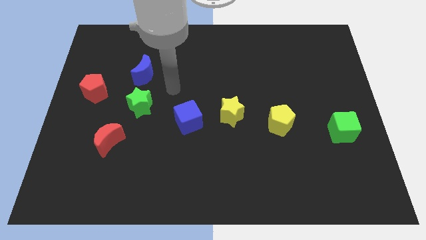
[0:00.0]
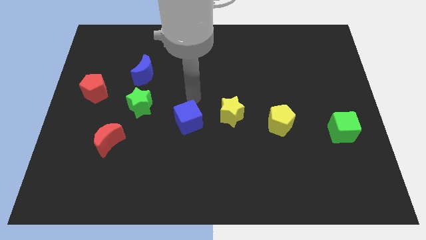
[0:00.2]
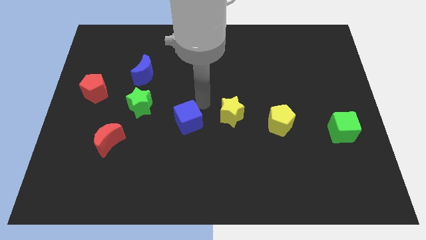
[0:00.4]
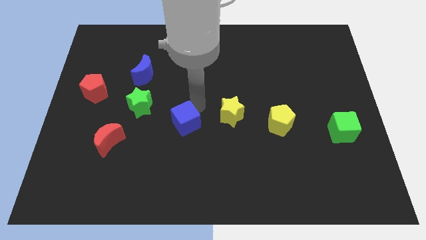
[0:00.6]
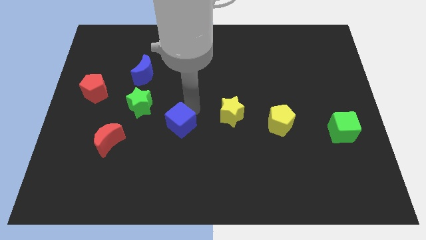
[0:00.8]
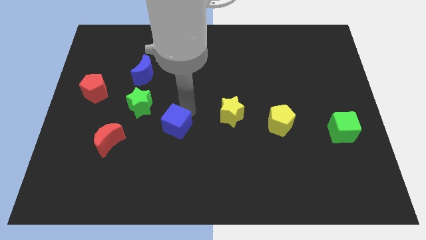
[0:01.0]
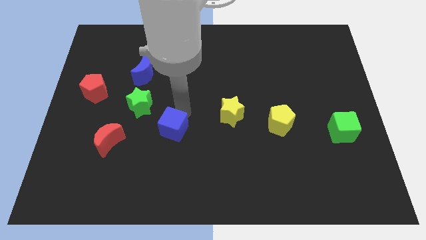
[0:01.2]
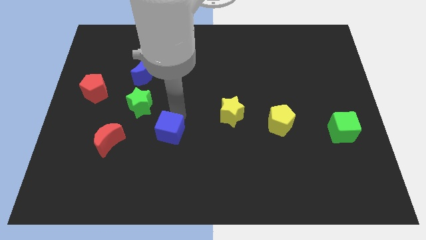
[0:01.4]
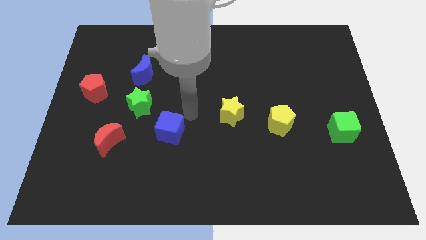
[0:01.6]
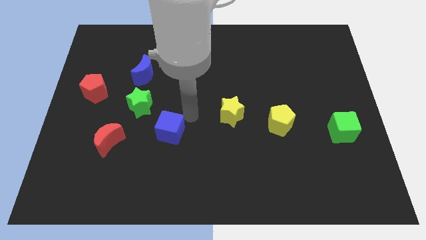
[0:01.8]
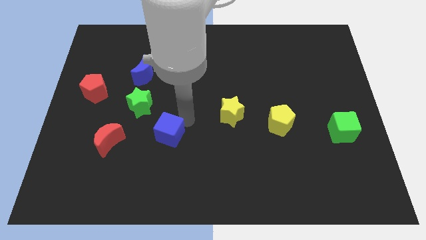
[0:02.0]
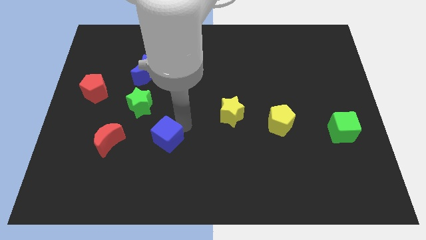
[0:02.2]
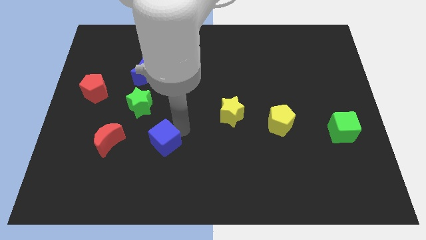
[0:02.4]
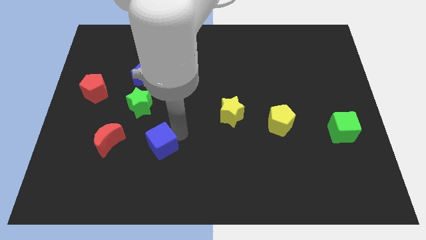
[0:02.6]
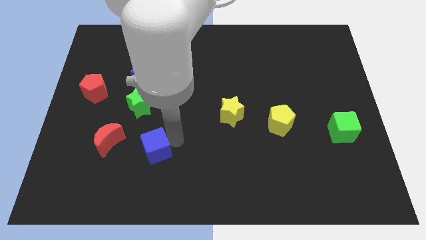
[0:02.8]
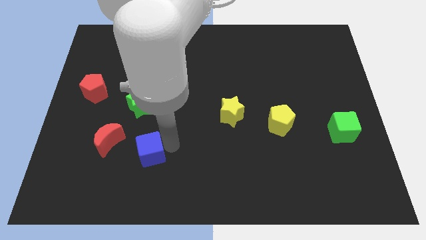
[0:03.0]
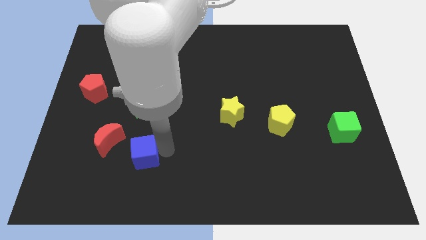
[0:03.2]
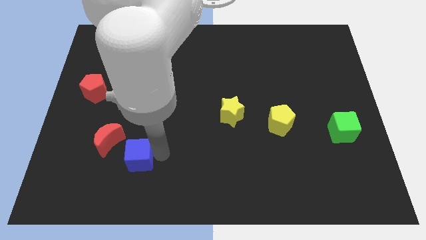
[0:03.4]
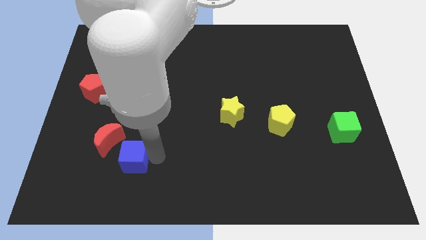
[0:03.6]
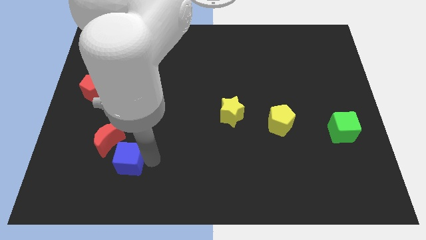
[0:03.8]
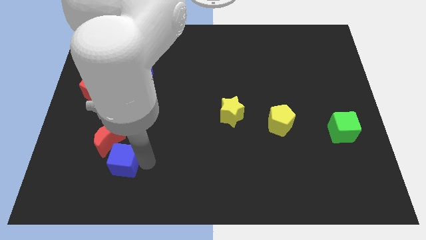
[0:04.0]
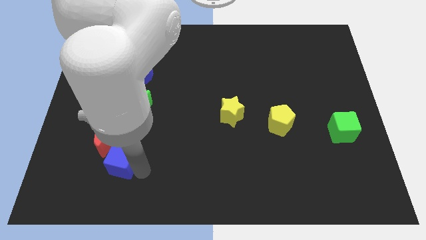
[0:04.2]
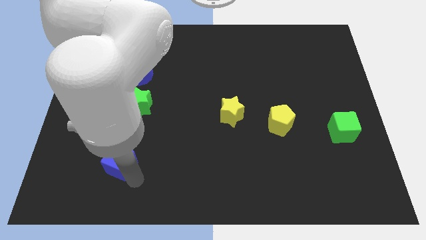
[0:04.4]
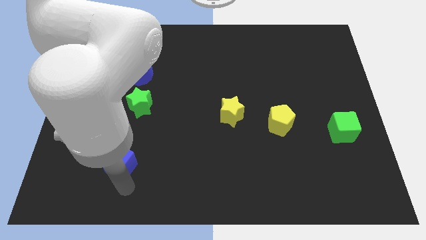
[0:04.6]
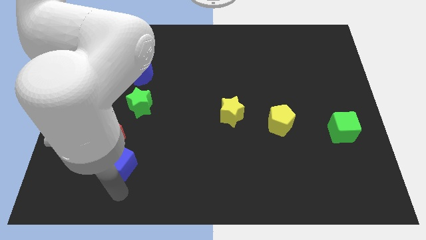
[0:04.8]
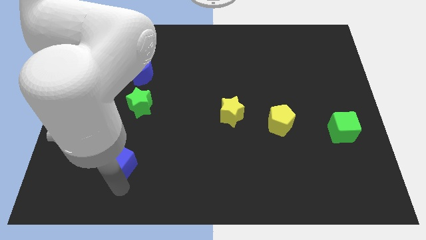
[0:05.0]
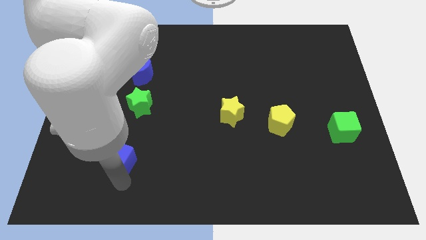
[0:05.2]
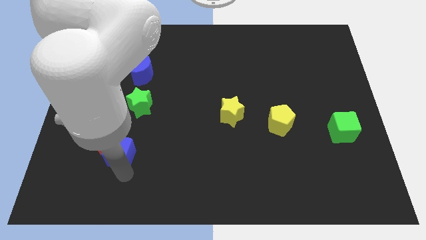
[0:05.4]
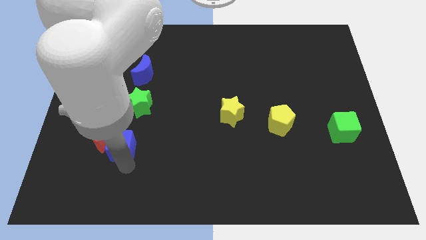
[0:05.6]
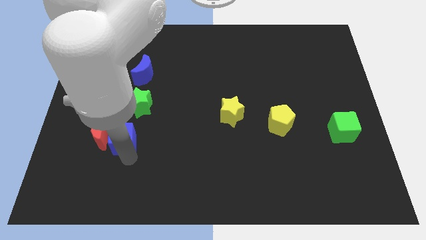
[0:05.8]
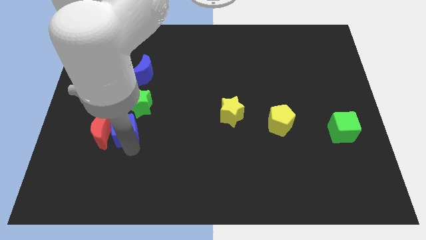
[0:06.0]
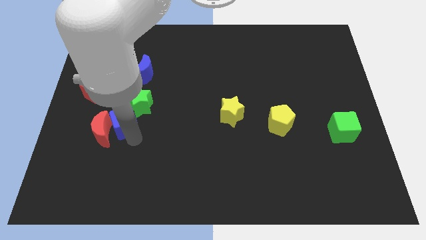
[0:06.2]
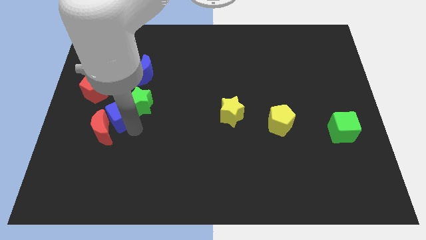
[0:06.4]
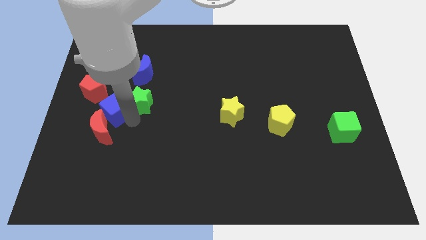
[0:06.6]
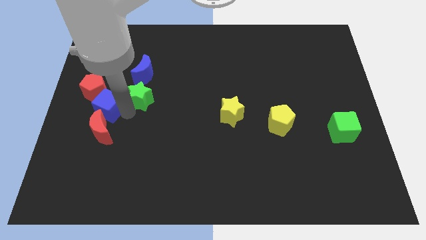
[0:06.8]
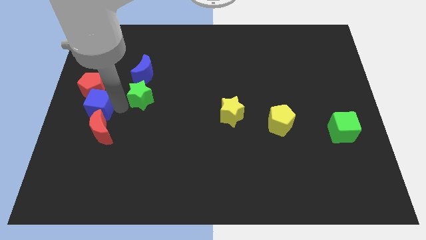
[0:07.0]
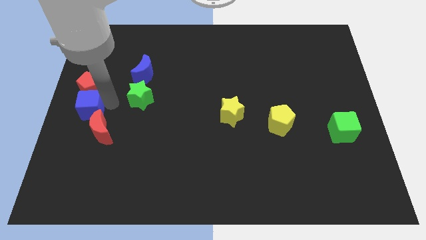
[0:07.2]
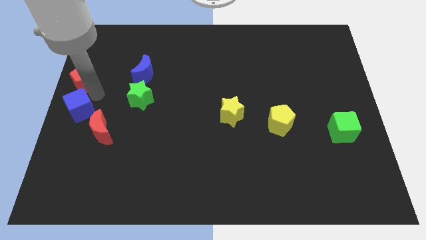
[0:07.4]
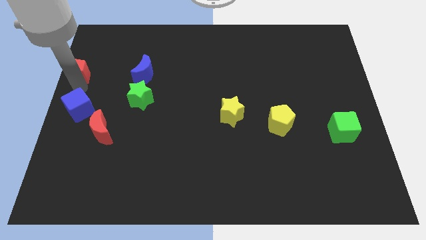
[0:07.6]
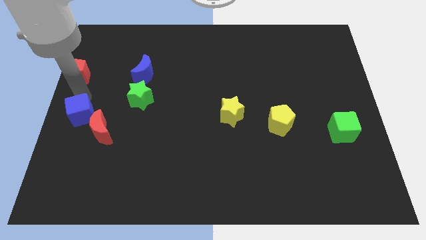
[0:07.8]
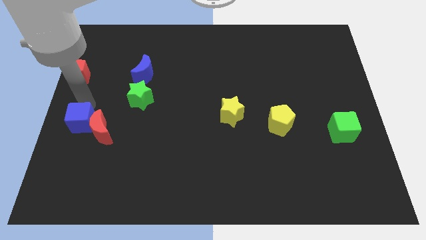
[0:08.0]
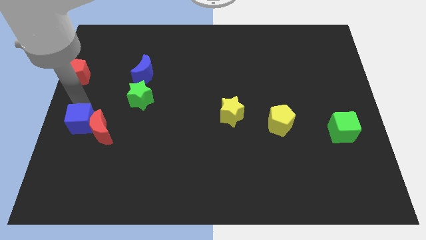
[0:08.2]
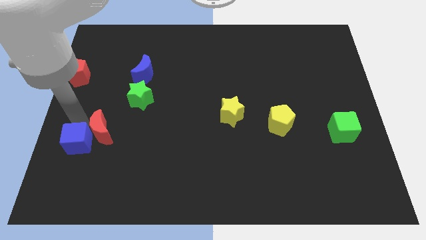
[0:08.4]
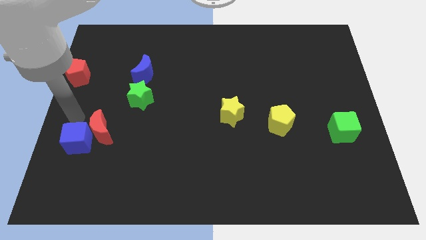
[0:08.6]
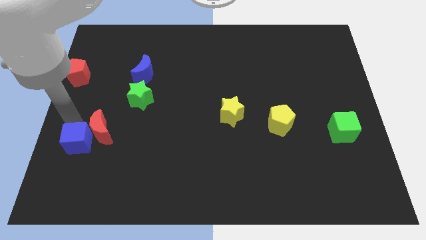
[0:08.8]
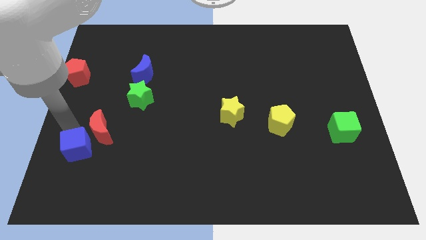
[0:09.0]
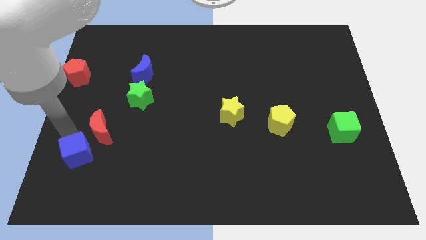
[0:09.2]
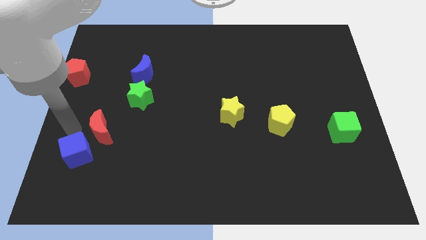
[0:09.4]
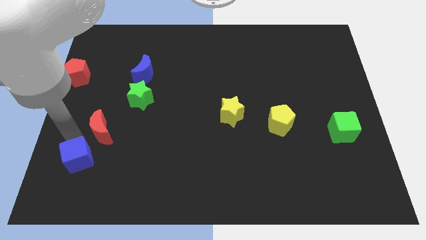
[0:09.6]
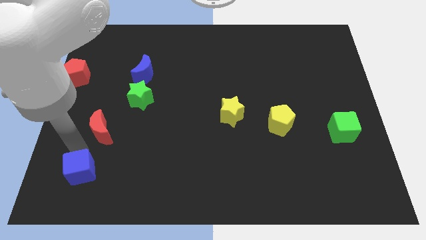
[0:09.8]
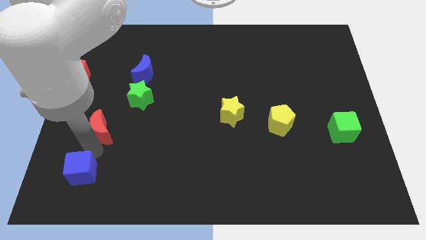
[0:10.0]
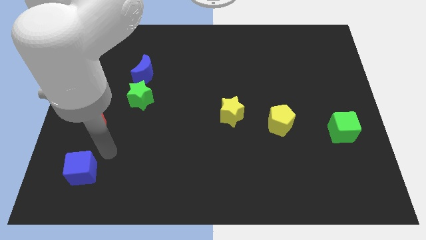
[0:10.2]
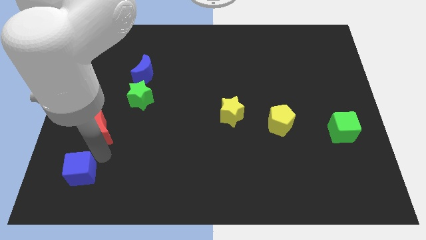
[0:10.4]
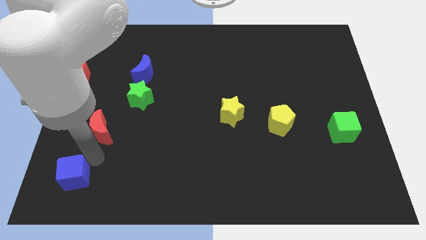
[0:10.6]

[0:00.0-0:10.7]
move the blue cube to the bottom left of the board

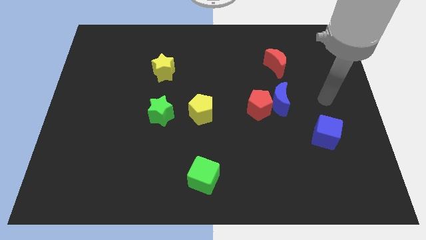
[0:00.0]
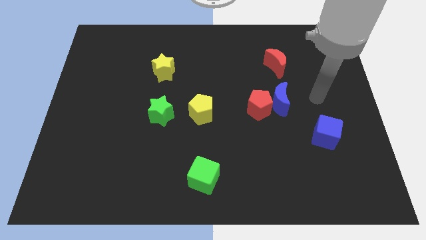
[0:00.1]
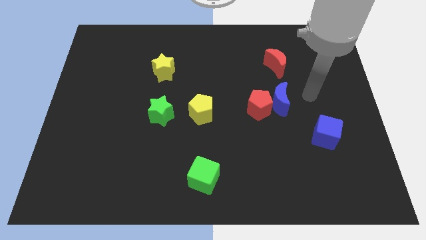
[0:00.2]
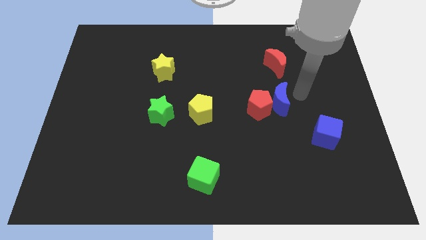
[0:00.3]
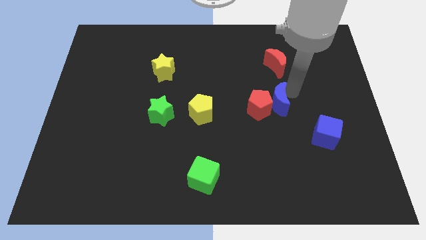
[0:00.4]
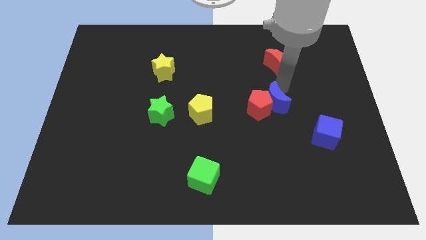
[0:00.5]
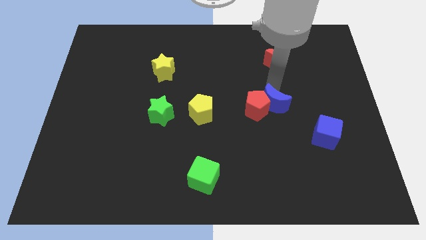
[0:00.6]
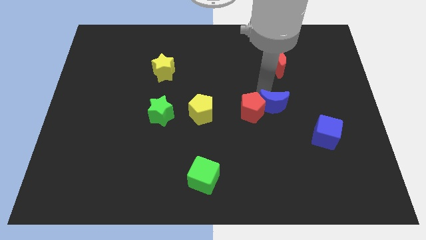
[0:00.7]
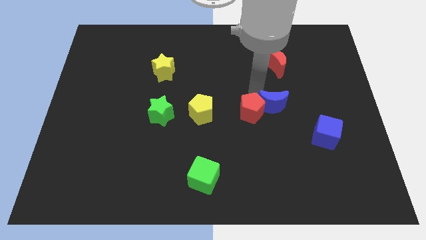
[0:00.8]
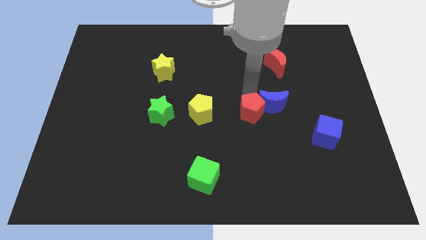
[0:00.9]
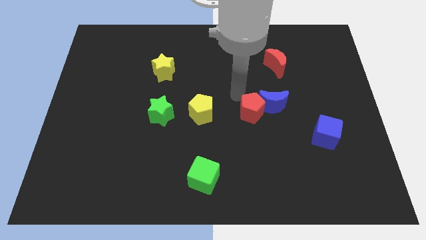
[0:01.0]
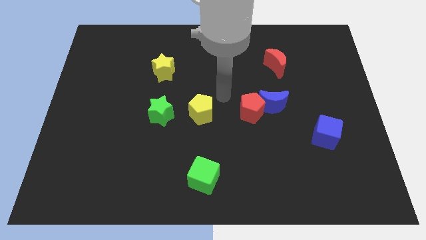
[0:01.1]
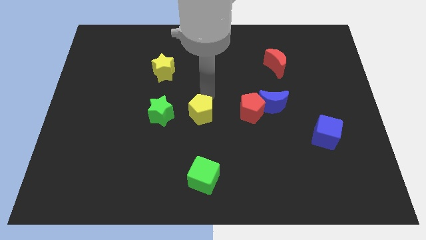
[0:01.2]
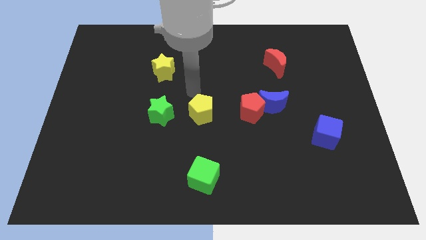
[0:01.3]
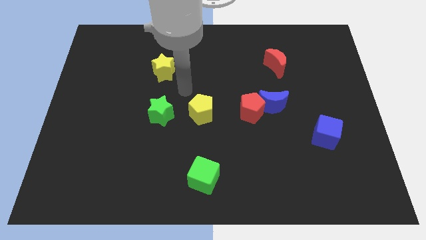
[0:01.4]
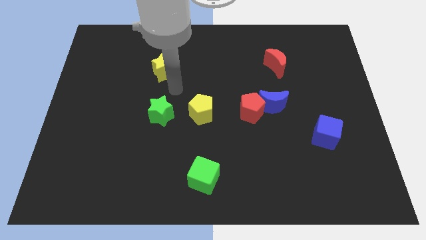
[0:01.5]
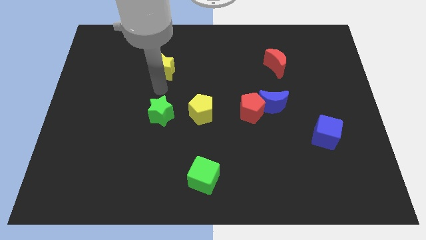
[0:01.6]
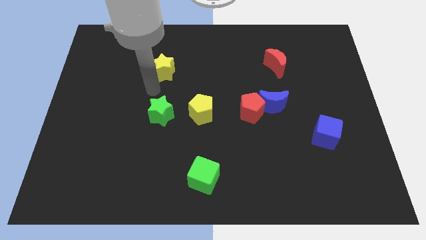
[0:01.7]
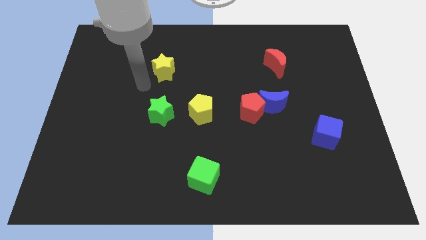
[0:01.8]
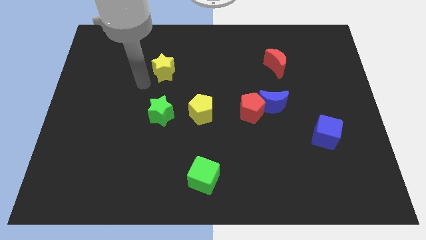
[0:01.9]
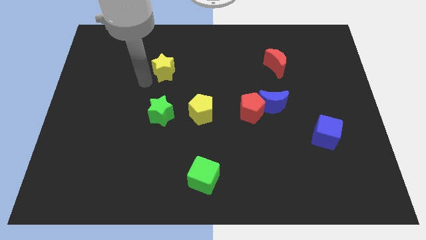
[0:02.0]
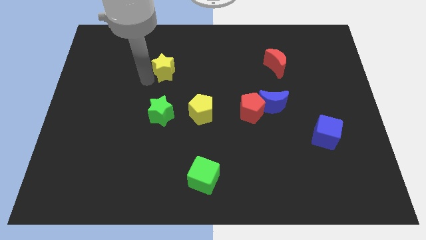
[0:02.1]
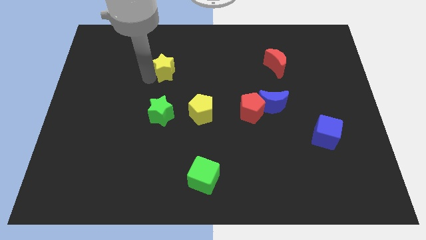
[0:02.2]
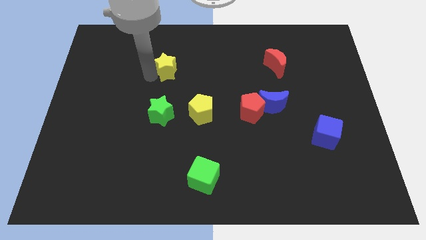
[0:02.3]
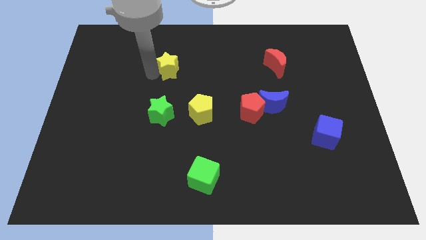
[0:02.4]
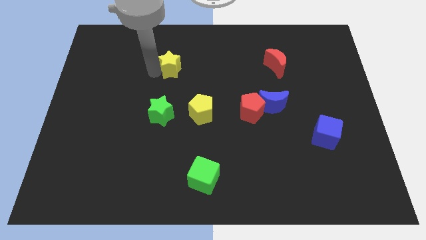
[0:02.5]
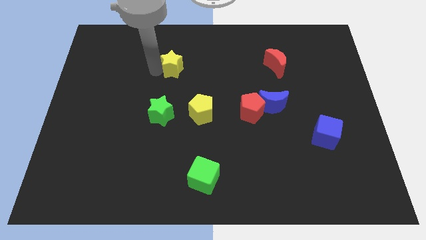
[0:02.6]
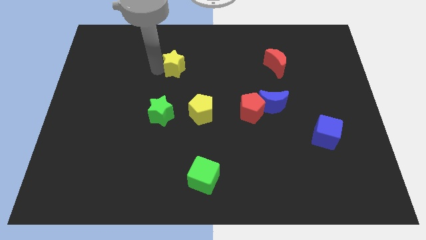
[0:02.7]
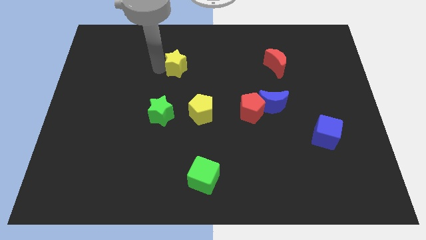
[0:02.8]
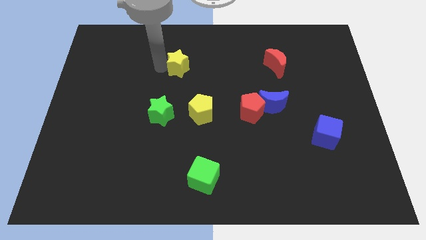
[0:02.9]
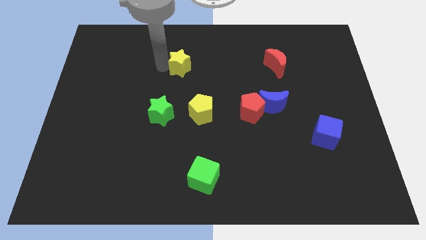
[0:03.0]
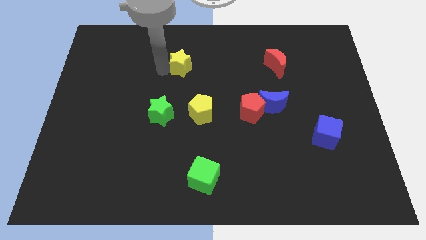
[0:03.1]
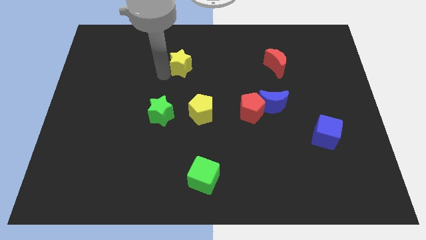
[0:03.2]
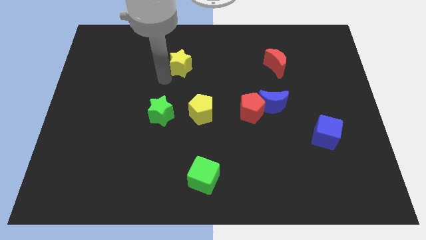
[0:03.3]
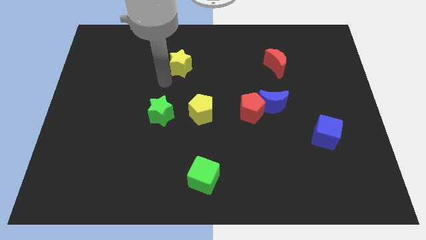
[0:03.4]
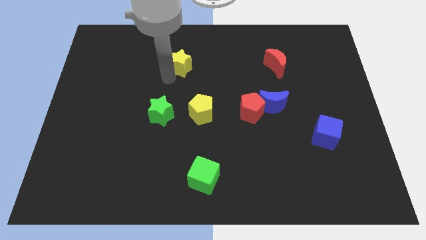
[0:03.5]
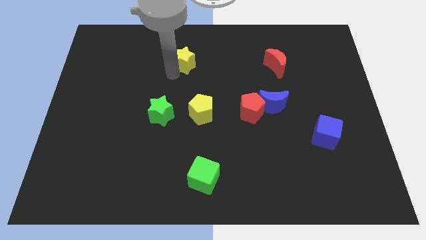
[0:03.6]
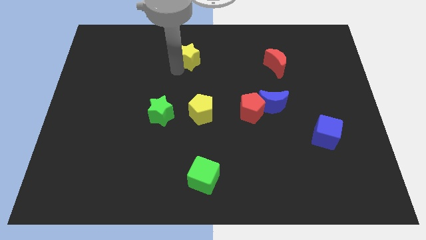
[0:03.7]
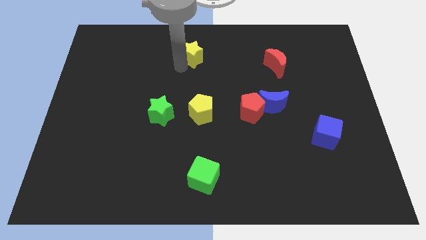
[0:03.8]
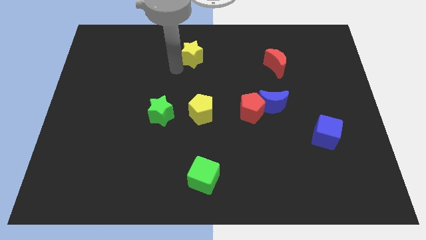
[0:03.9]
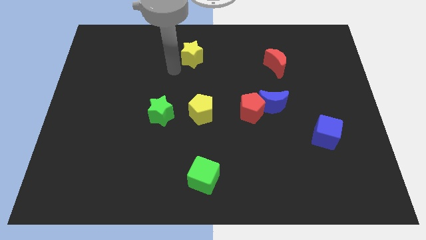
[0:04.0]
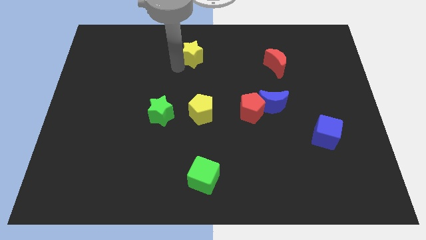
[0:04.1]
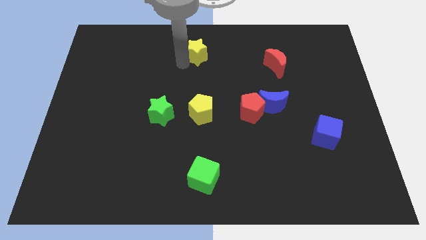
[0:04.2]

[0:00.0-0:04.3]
put the yellow star to the top side
